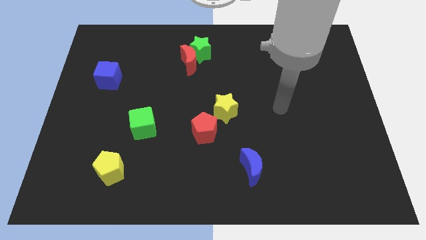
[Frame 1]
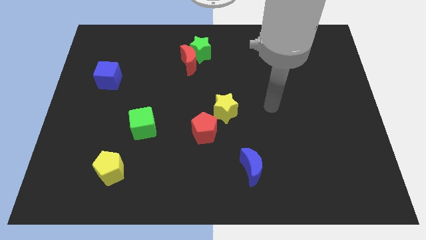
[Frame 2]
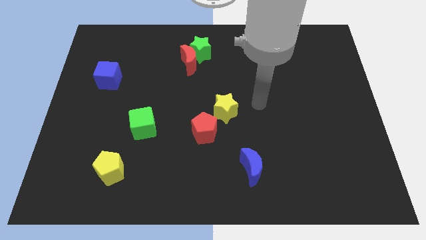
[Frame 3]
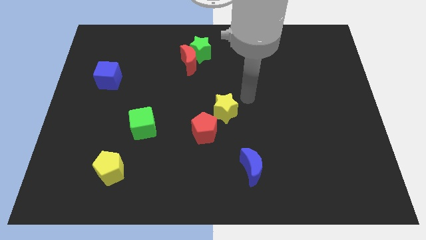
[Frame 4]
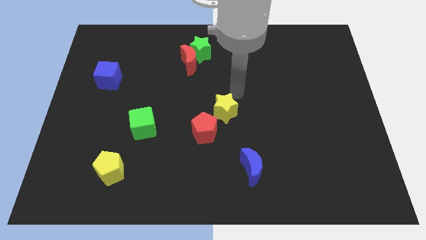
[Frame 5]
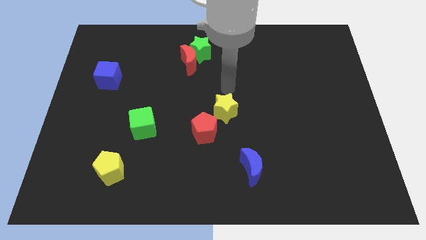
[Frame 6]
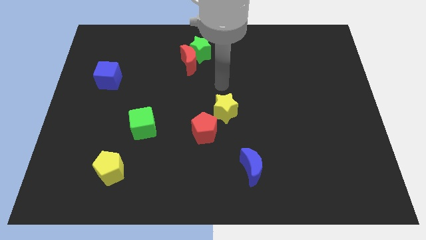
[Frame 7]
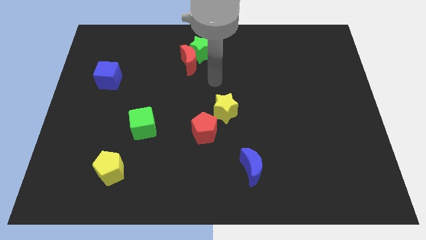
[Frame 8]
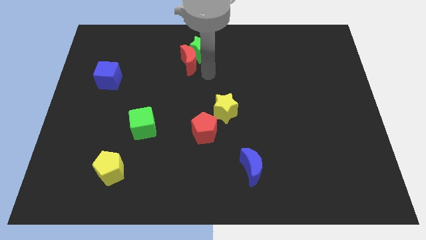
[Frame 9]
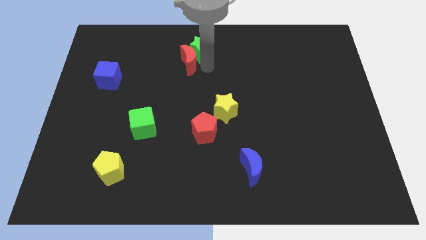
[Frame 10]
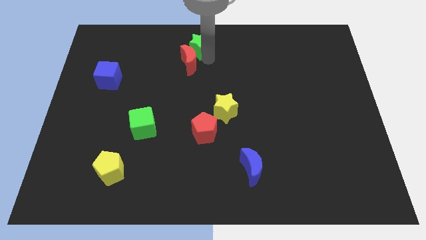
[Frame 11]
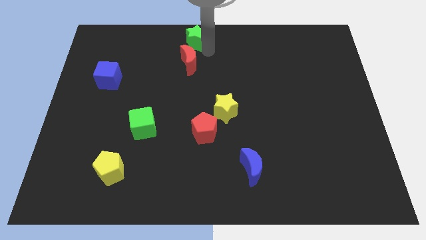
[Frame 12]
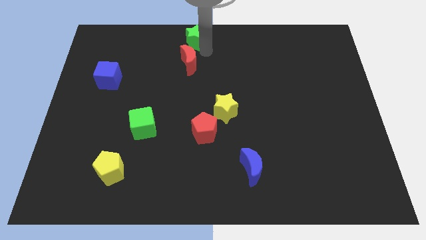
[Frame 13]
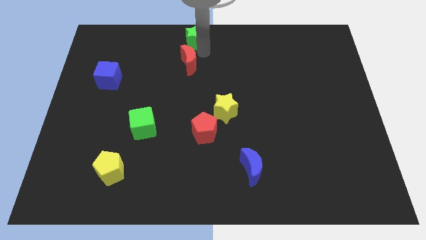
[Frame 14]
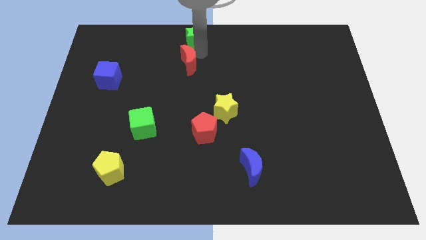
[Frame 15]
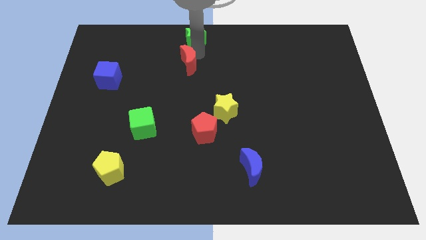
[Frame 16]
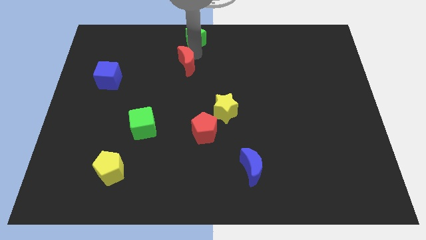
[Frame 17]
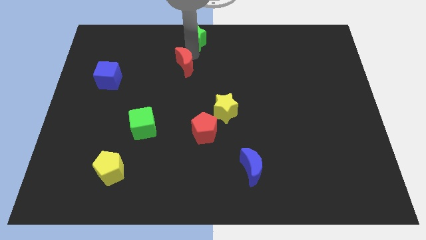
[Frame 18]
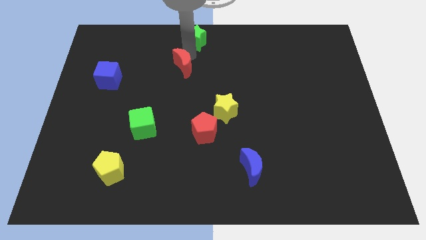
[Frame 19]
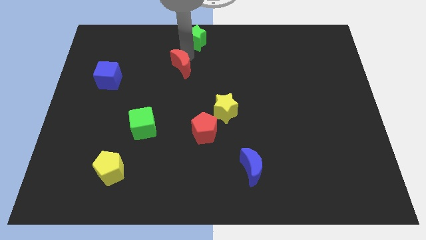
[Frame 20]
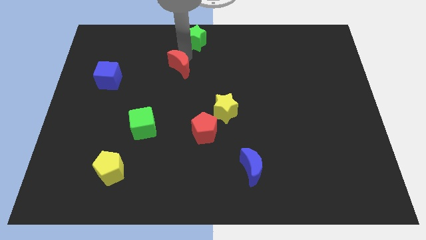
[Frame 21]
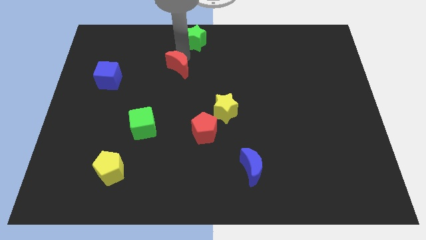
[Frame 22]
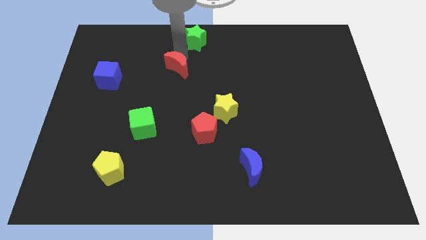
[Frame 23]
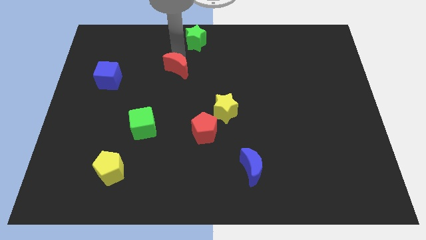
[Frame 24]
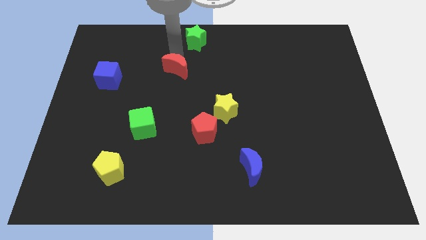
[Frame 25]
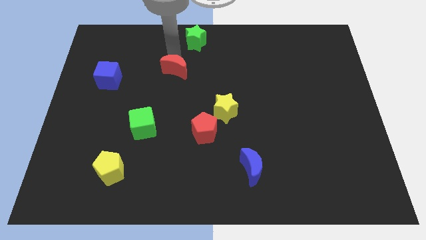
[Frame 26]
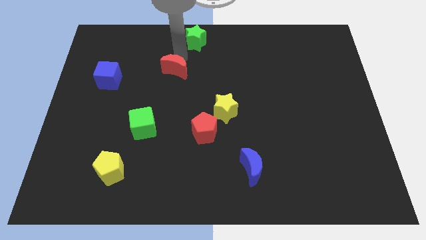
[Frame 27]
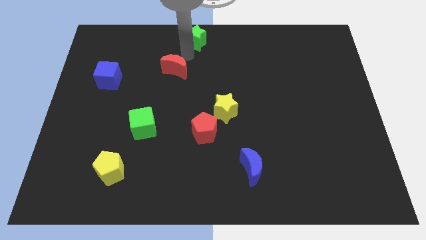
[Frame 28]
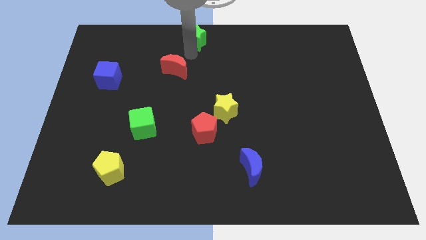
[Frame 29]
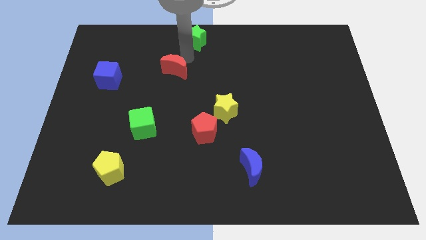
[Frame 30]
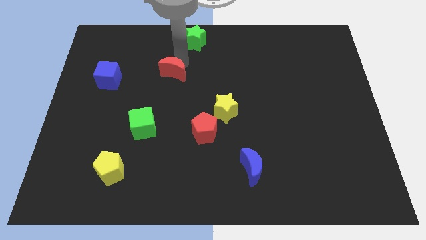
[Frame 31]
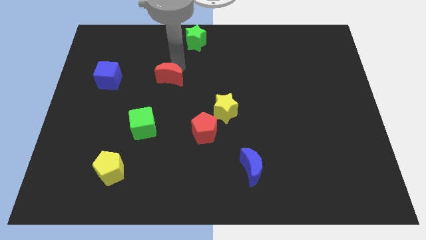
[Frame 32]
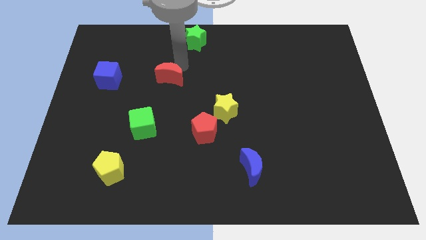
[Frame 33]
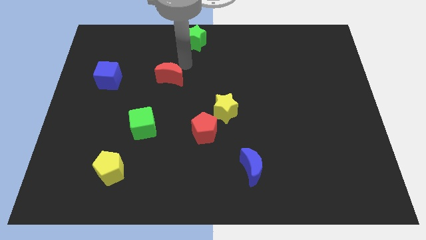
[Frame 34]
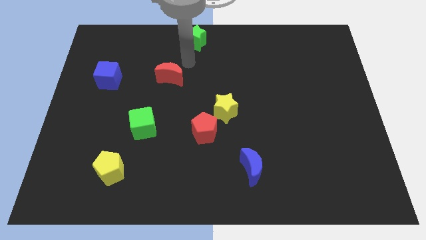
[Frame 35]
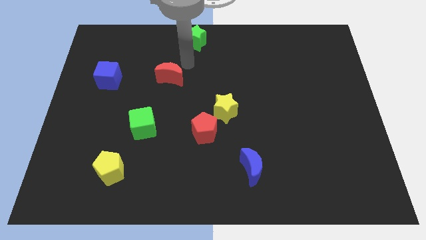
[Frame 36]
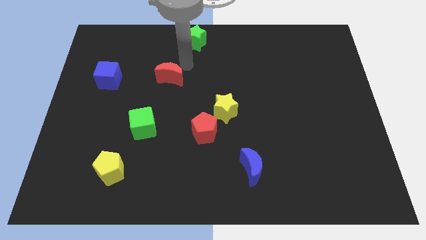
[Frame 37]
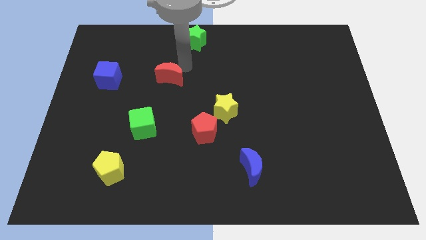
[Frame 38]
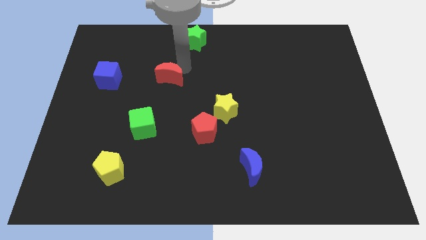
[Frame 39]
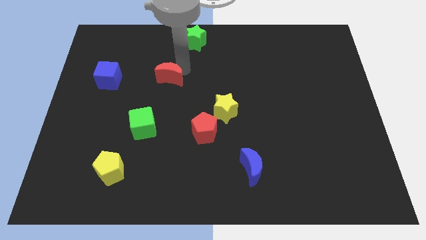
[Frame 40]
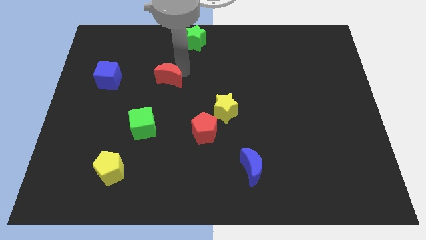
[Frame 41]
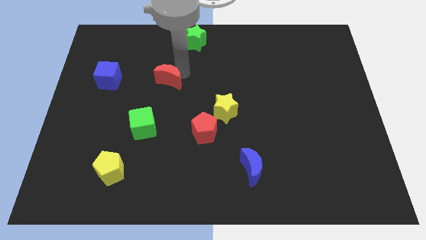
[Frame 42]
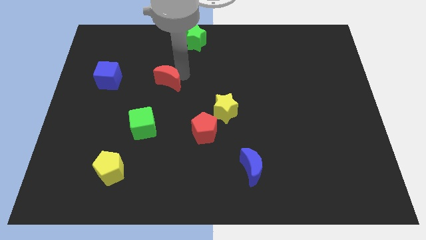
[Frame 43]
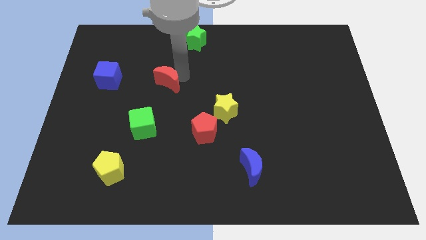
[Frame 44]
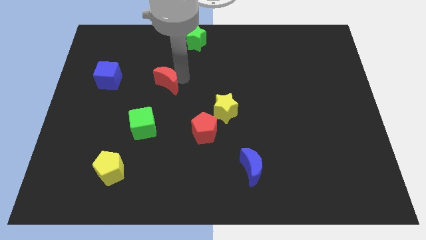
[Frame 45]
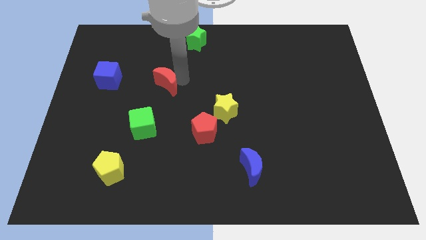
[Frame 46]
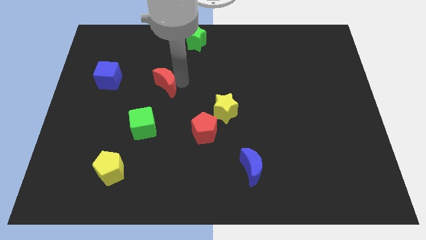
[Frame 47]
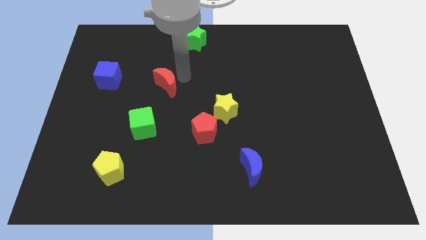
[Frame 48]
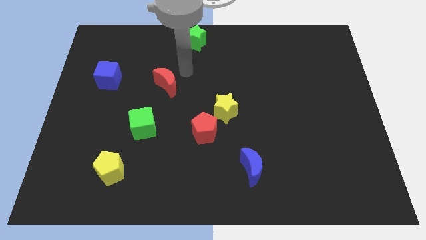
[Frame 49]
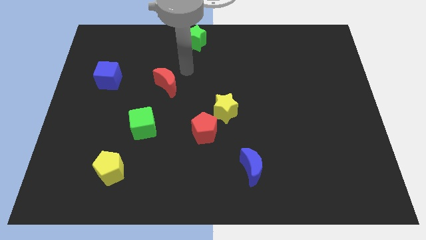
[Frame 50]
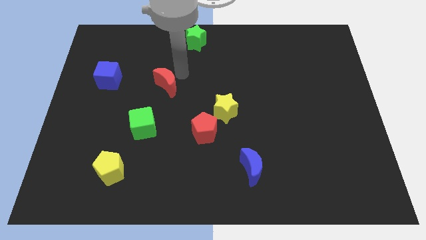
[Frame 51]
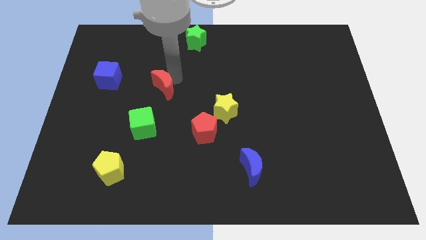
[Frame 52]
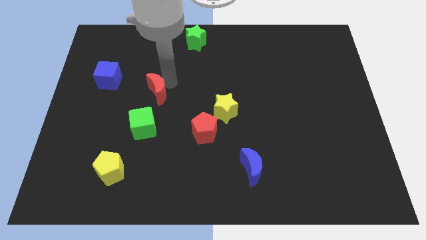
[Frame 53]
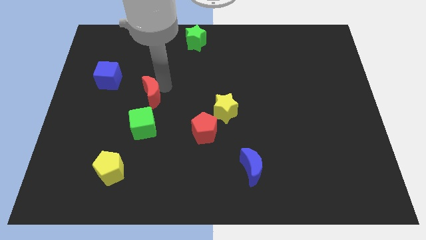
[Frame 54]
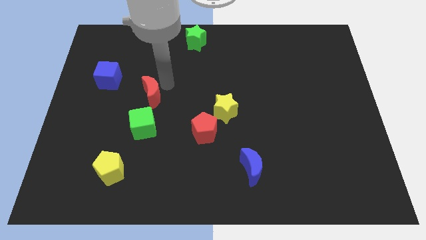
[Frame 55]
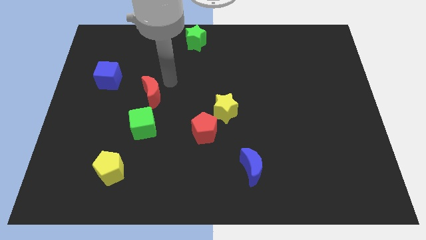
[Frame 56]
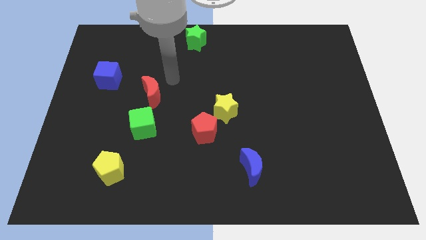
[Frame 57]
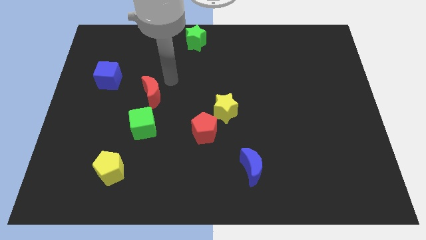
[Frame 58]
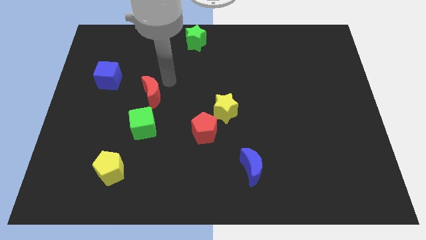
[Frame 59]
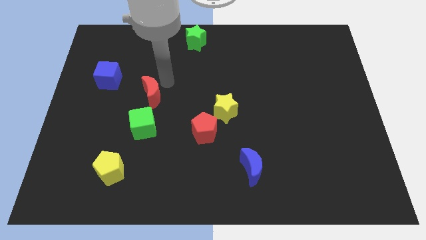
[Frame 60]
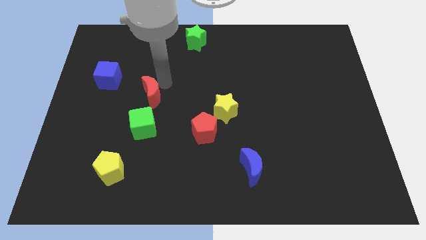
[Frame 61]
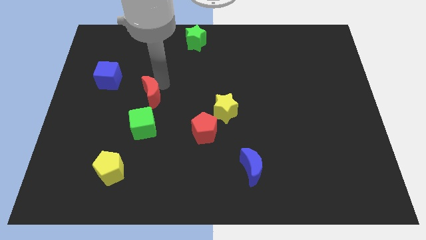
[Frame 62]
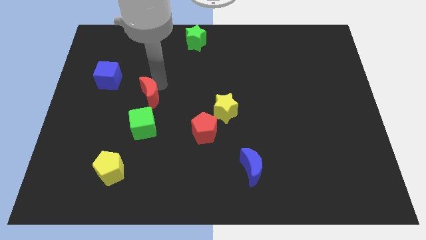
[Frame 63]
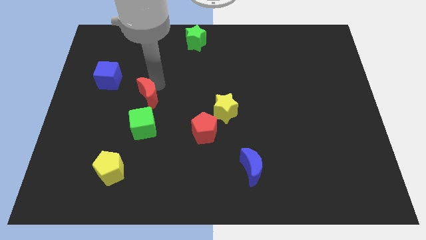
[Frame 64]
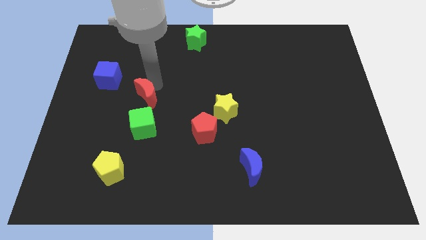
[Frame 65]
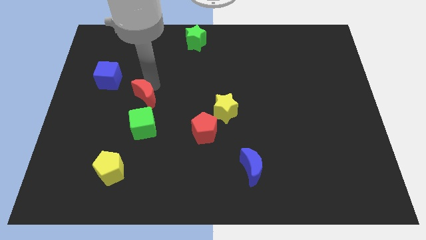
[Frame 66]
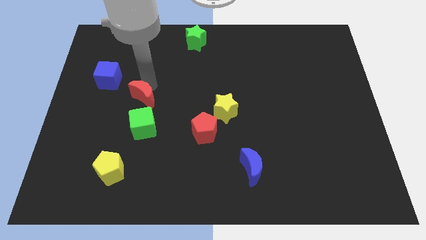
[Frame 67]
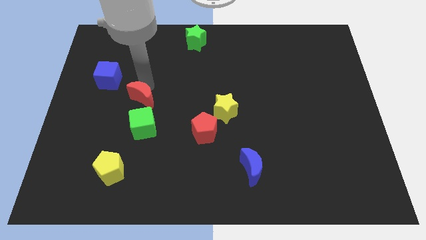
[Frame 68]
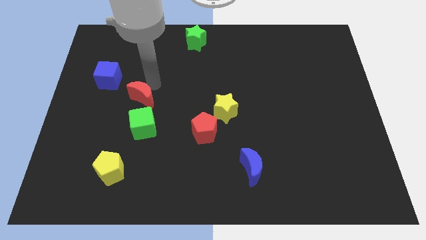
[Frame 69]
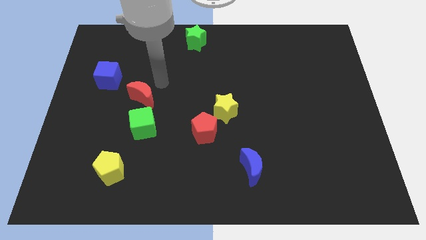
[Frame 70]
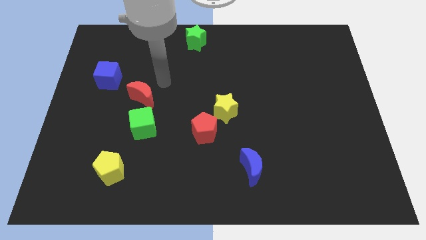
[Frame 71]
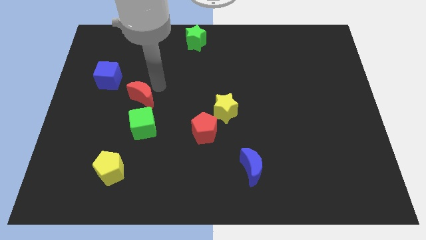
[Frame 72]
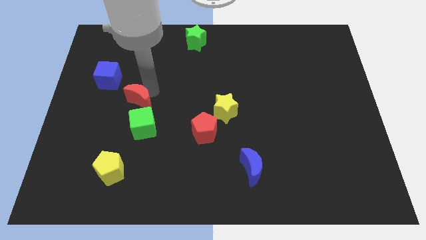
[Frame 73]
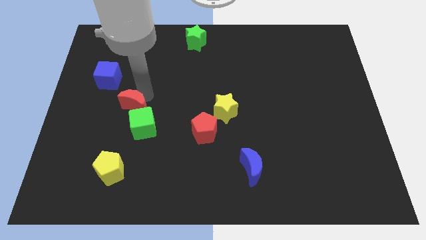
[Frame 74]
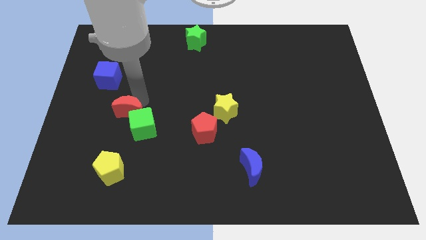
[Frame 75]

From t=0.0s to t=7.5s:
move the red moon downwards and then to the left

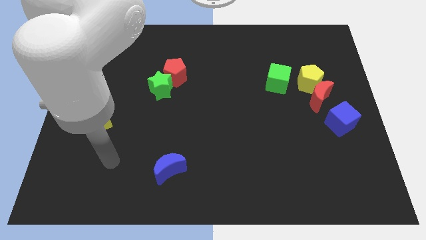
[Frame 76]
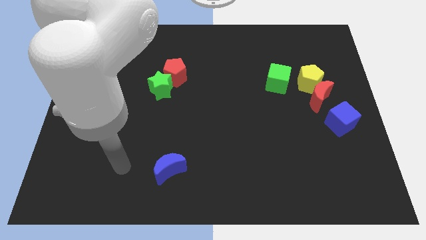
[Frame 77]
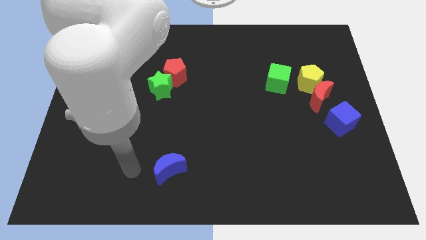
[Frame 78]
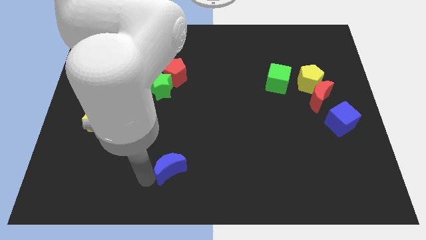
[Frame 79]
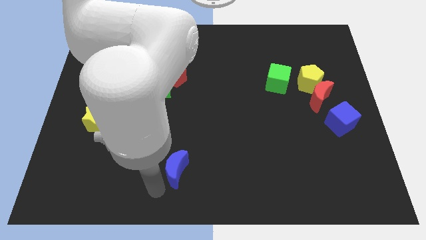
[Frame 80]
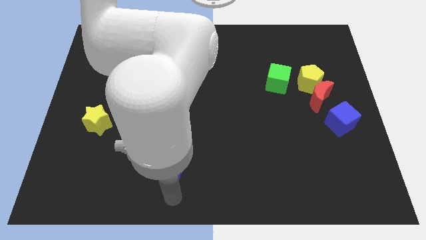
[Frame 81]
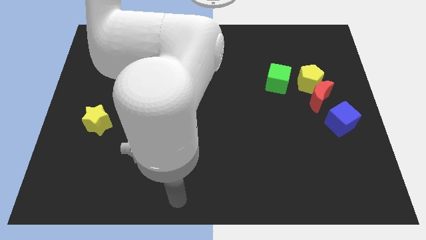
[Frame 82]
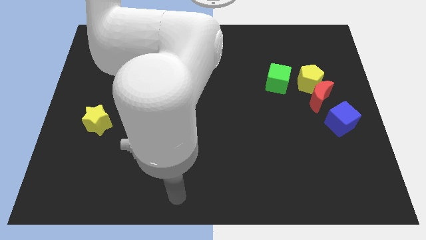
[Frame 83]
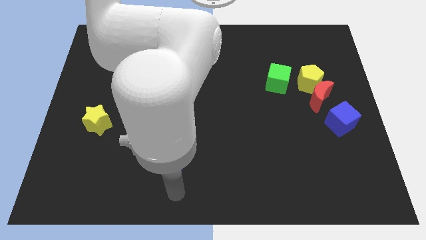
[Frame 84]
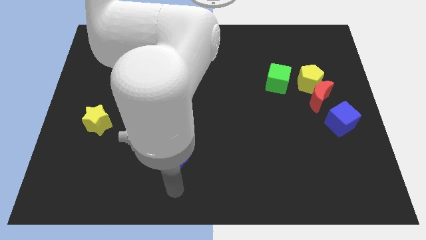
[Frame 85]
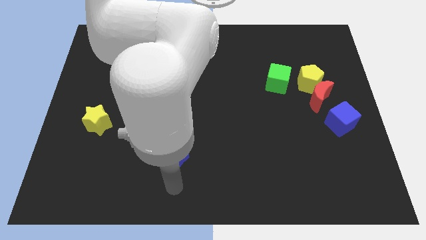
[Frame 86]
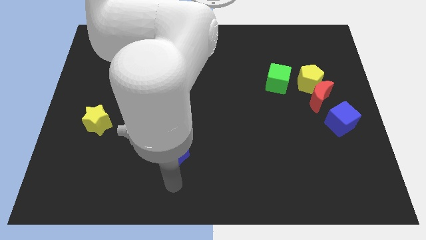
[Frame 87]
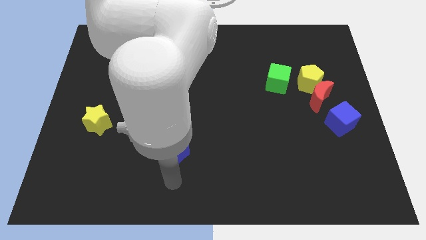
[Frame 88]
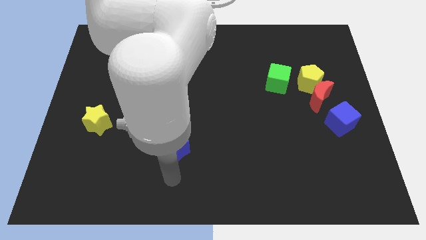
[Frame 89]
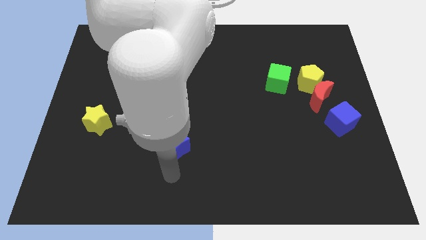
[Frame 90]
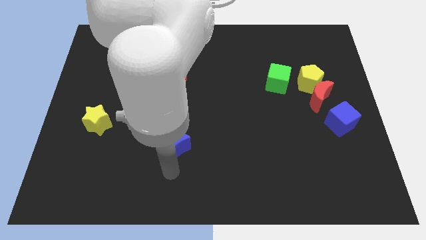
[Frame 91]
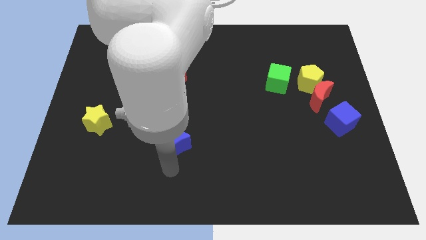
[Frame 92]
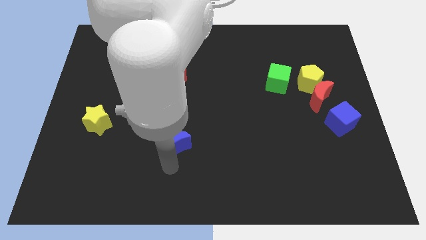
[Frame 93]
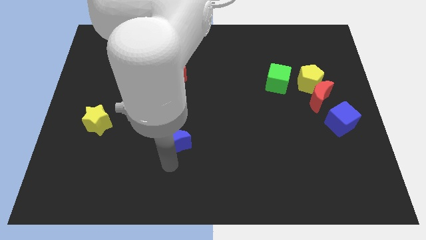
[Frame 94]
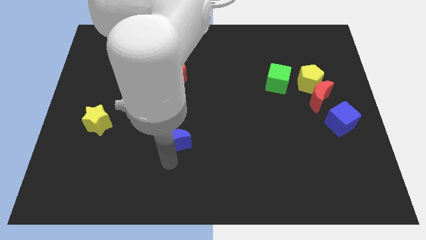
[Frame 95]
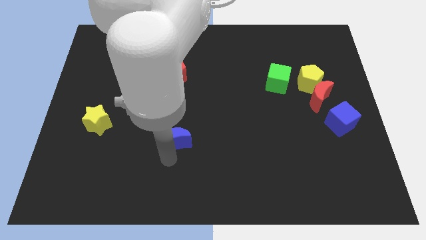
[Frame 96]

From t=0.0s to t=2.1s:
slightly slide the blue moon up
